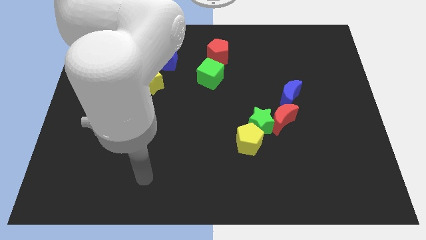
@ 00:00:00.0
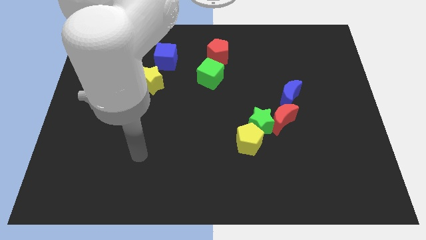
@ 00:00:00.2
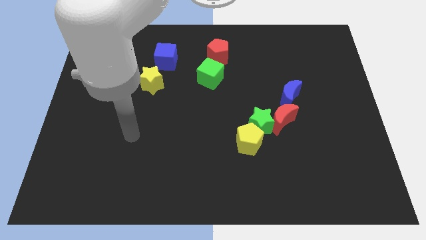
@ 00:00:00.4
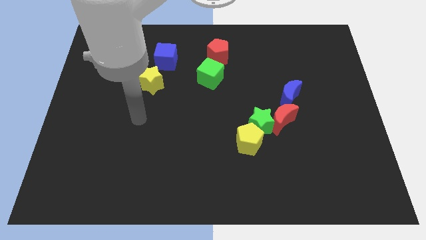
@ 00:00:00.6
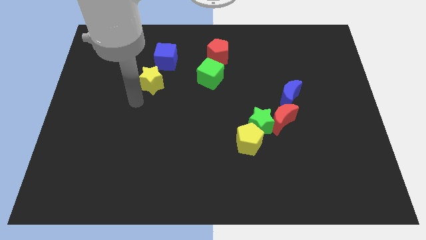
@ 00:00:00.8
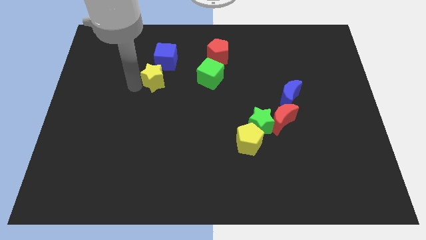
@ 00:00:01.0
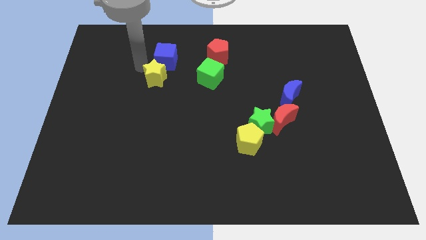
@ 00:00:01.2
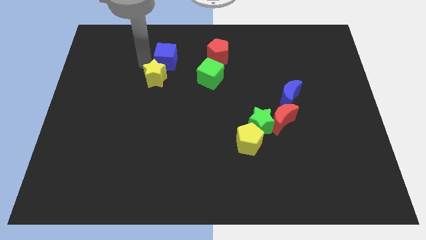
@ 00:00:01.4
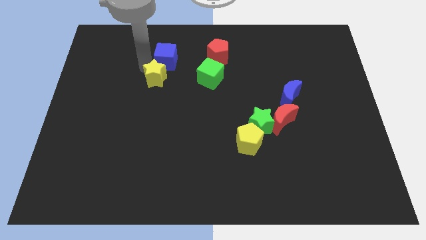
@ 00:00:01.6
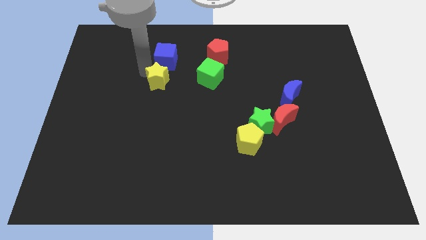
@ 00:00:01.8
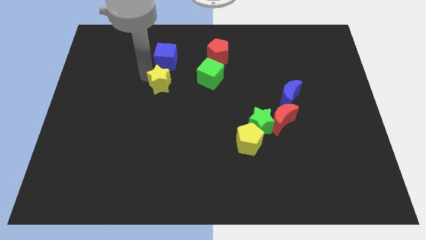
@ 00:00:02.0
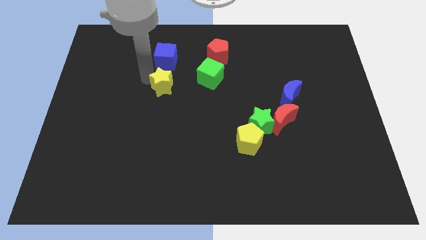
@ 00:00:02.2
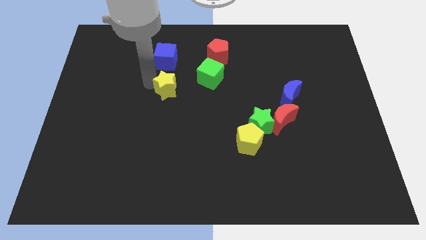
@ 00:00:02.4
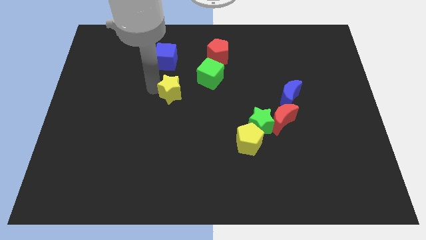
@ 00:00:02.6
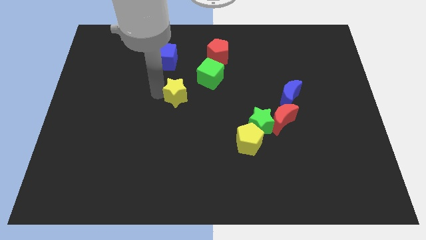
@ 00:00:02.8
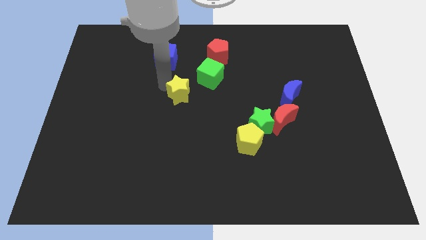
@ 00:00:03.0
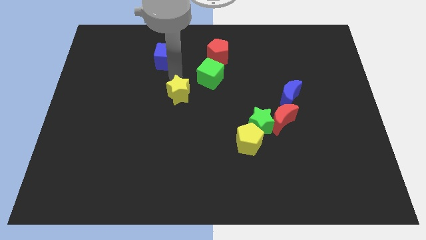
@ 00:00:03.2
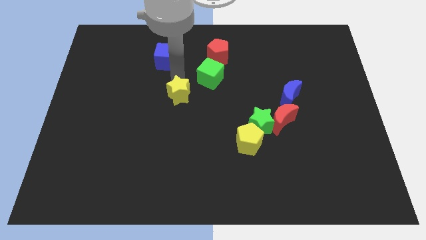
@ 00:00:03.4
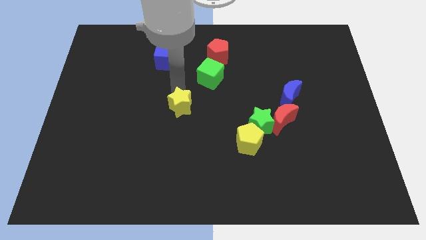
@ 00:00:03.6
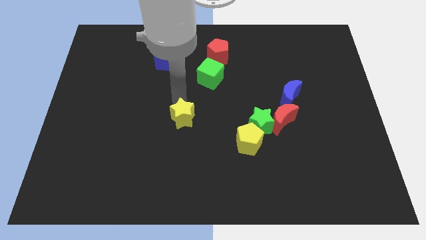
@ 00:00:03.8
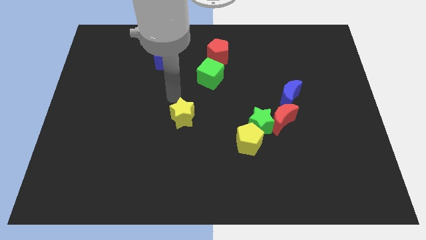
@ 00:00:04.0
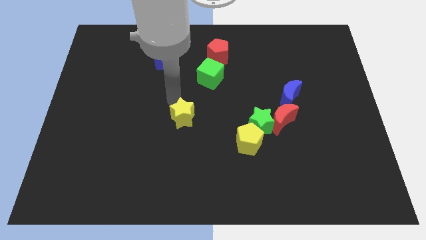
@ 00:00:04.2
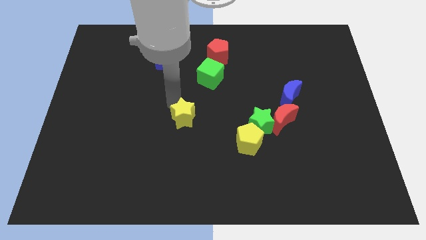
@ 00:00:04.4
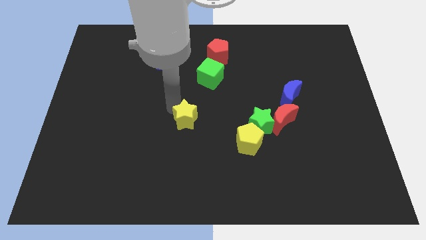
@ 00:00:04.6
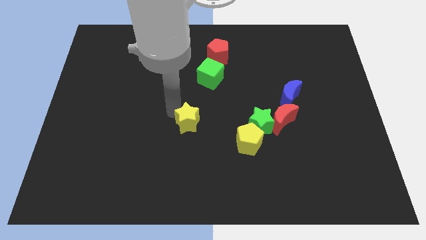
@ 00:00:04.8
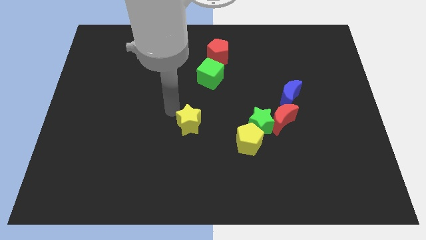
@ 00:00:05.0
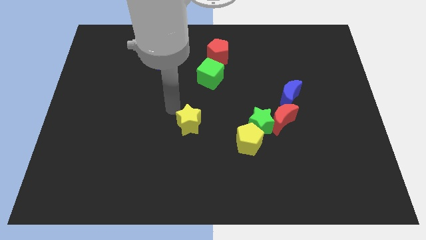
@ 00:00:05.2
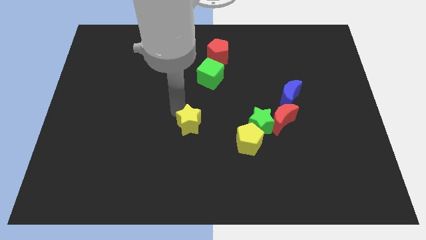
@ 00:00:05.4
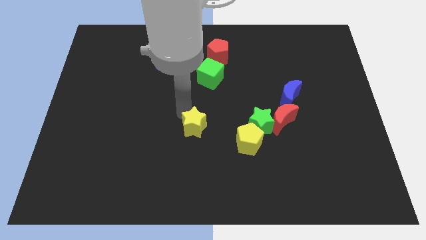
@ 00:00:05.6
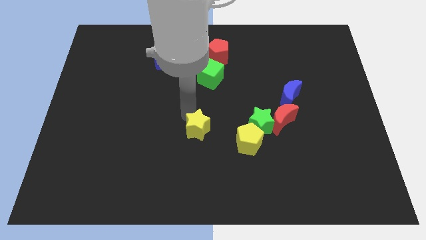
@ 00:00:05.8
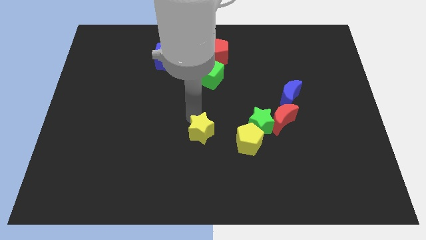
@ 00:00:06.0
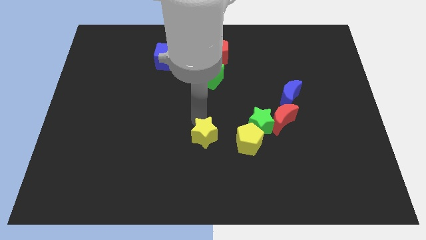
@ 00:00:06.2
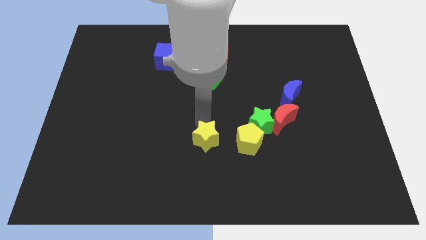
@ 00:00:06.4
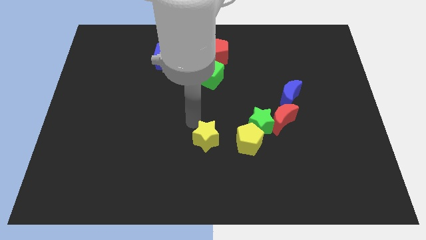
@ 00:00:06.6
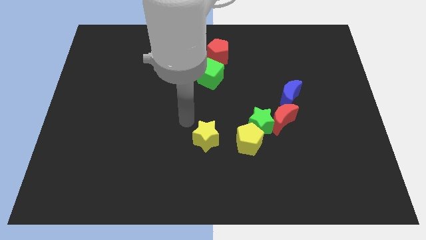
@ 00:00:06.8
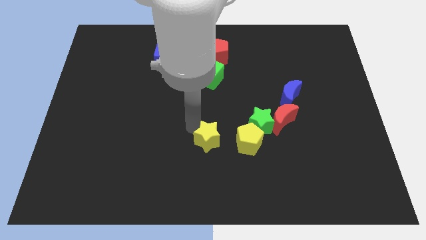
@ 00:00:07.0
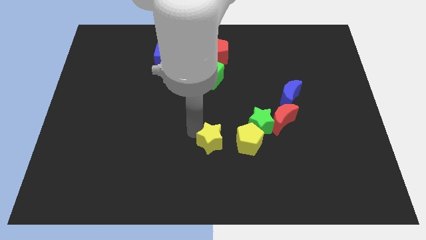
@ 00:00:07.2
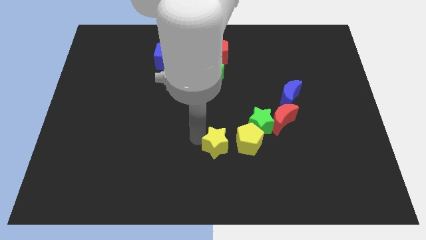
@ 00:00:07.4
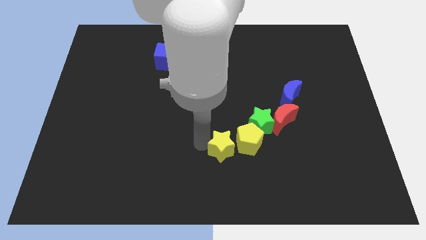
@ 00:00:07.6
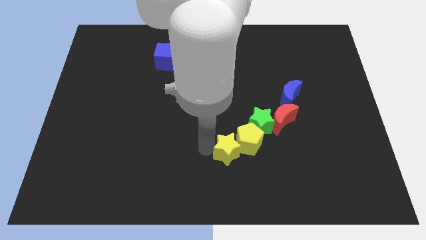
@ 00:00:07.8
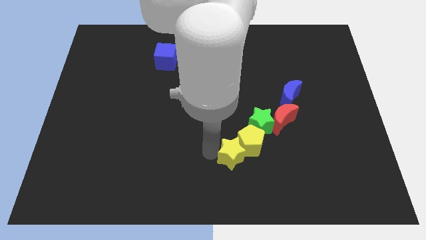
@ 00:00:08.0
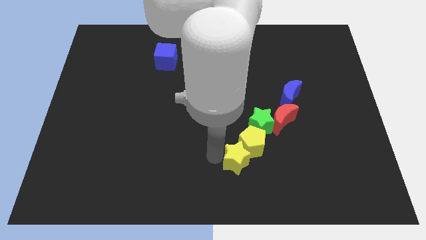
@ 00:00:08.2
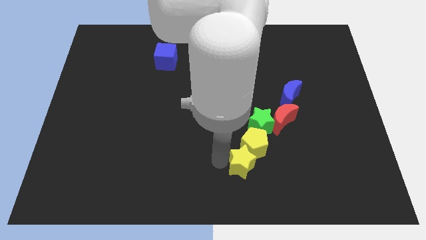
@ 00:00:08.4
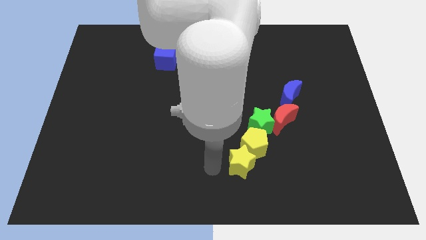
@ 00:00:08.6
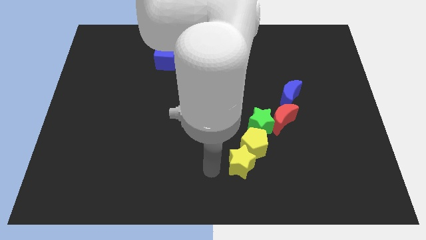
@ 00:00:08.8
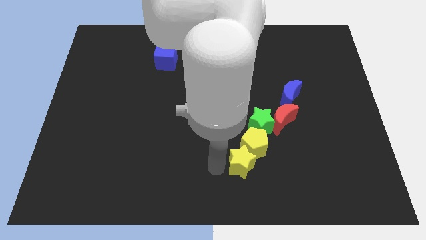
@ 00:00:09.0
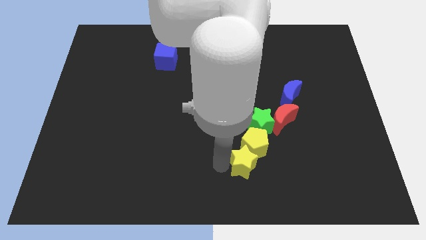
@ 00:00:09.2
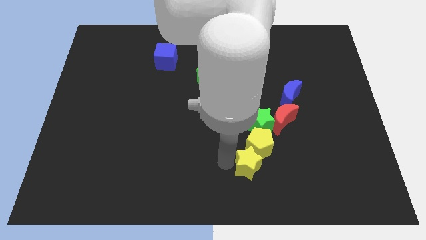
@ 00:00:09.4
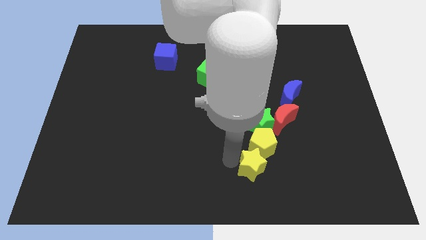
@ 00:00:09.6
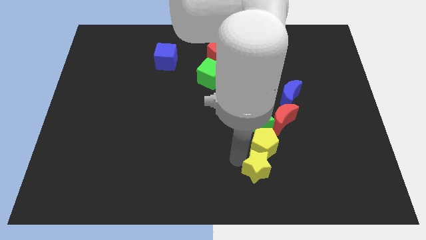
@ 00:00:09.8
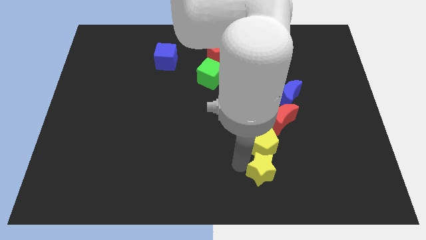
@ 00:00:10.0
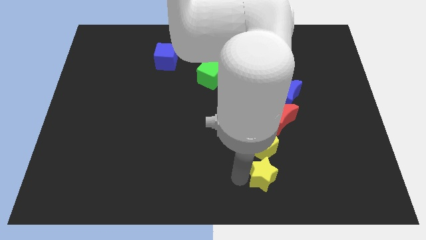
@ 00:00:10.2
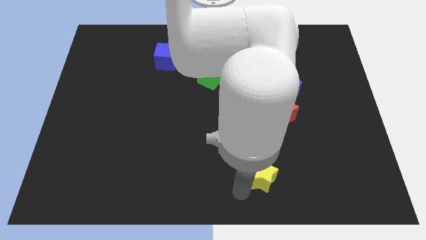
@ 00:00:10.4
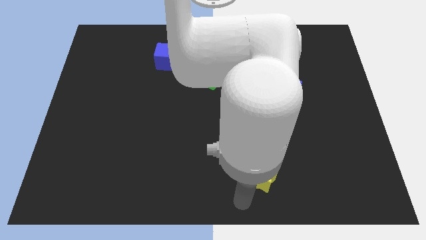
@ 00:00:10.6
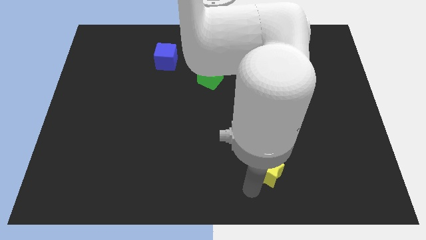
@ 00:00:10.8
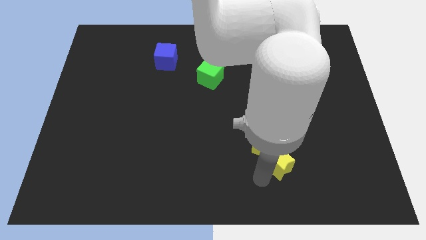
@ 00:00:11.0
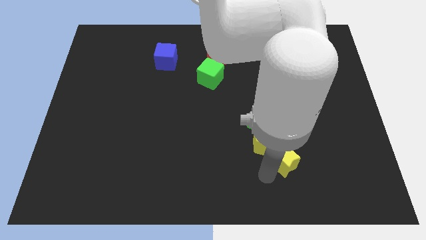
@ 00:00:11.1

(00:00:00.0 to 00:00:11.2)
move the yellow star just right of the yellow pentagon

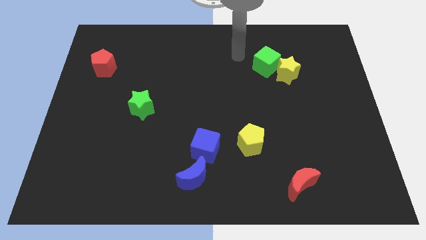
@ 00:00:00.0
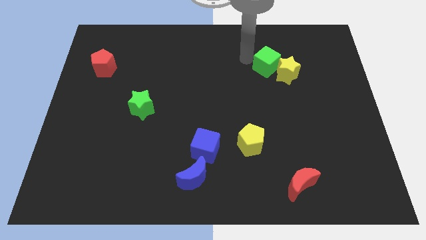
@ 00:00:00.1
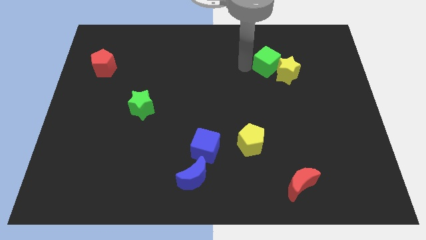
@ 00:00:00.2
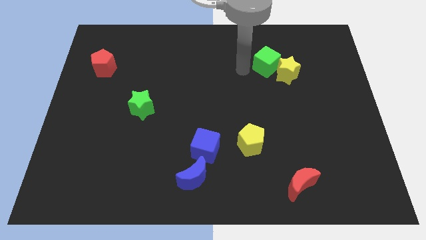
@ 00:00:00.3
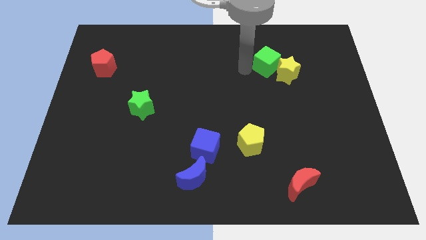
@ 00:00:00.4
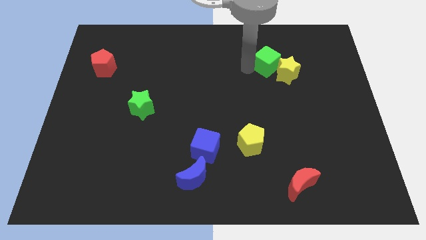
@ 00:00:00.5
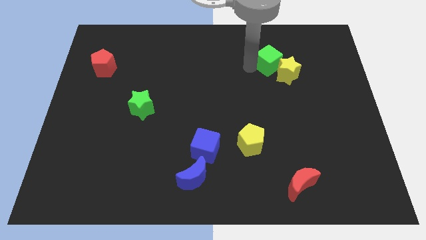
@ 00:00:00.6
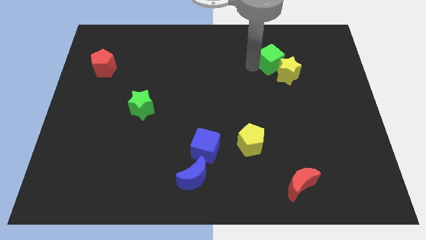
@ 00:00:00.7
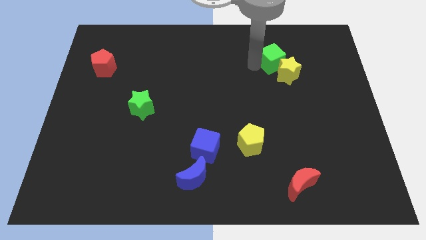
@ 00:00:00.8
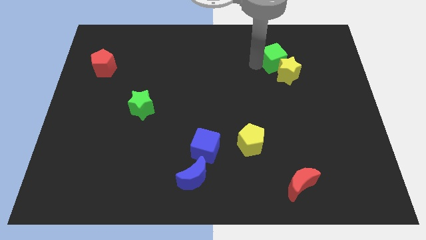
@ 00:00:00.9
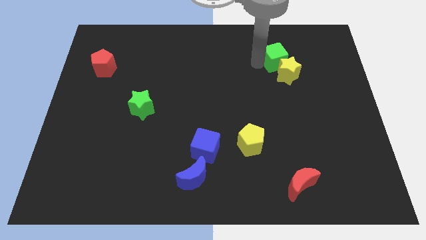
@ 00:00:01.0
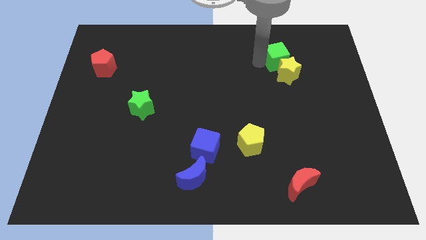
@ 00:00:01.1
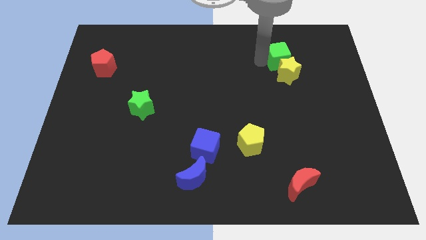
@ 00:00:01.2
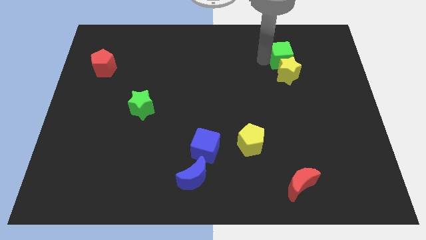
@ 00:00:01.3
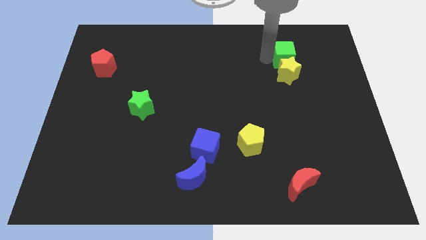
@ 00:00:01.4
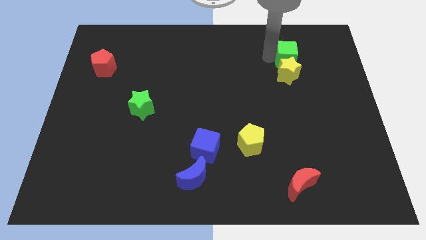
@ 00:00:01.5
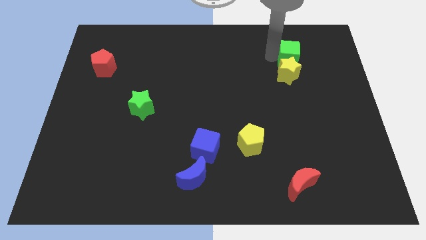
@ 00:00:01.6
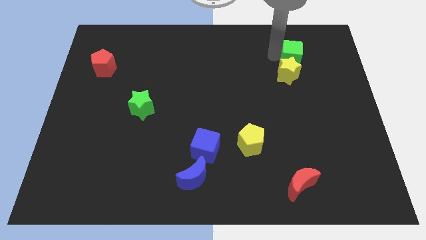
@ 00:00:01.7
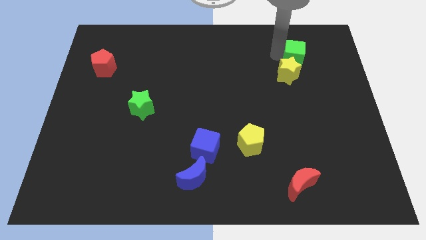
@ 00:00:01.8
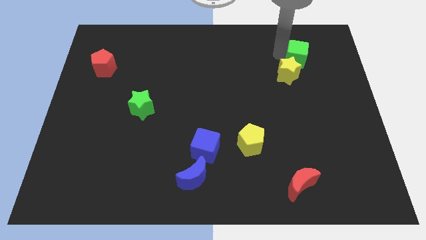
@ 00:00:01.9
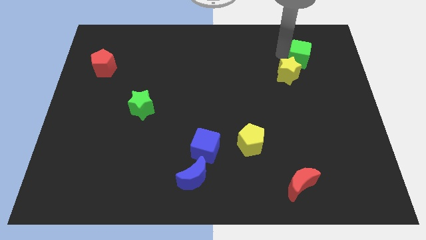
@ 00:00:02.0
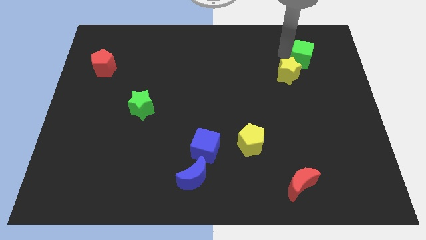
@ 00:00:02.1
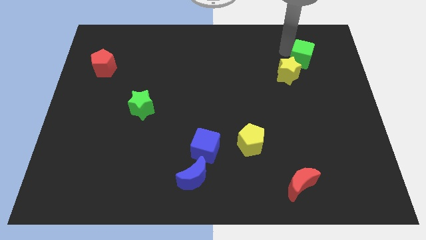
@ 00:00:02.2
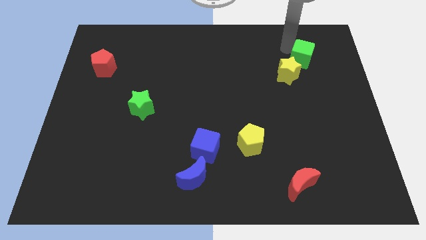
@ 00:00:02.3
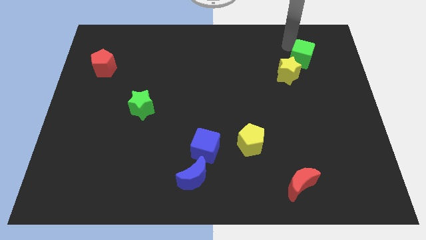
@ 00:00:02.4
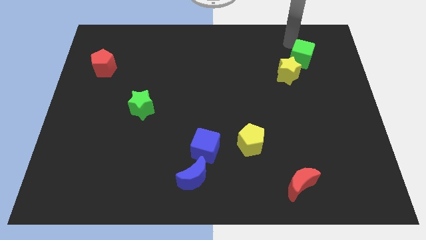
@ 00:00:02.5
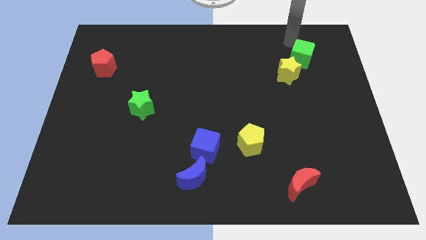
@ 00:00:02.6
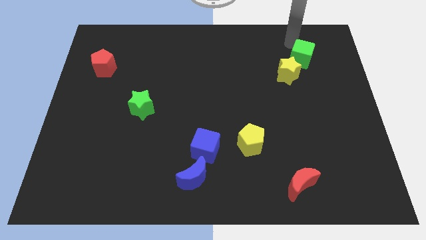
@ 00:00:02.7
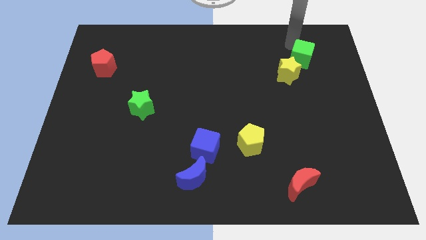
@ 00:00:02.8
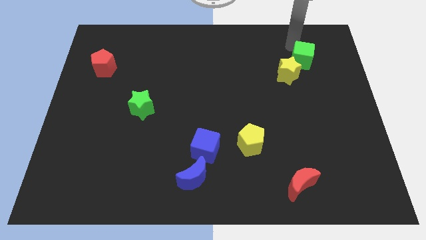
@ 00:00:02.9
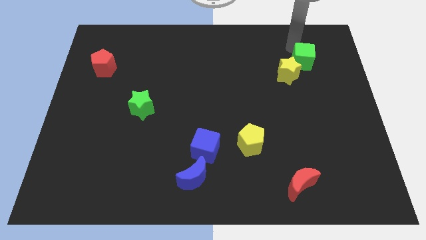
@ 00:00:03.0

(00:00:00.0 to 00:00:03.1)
move the green cube to the right of the yellow star
